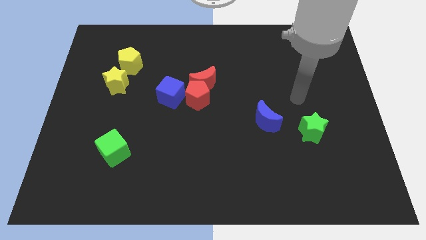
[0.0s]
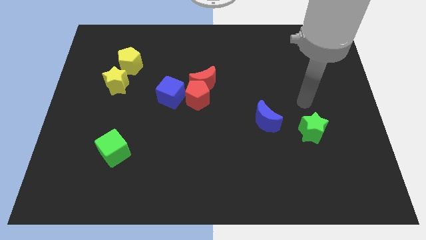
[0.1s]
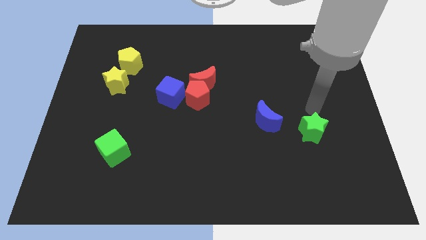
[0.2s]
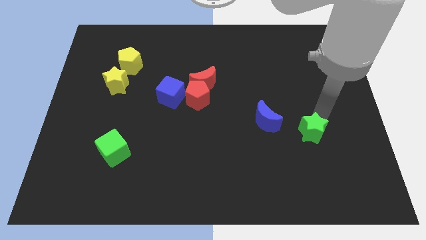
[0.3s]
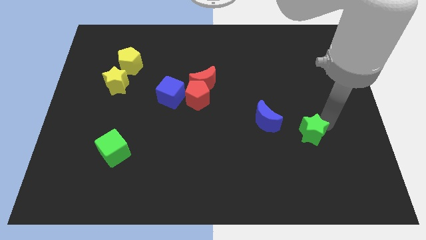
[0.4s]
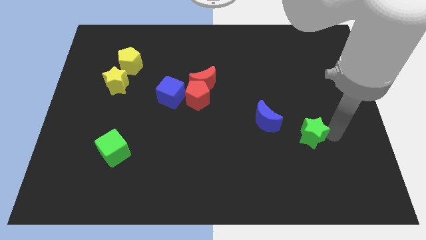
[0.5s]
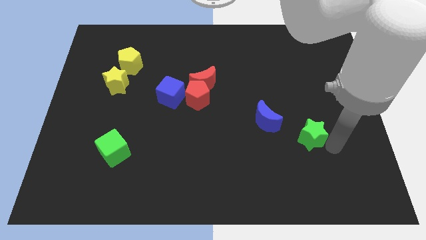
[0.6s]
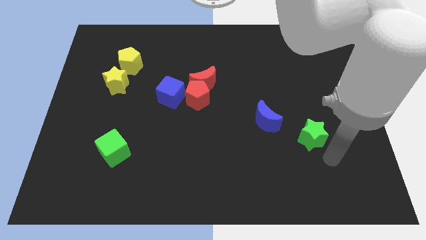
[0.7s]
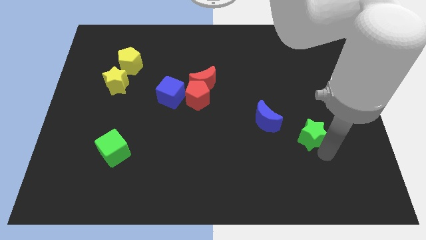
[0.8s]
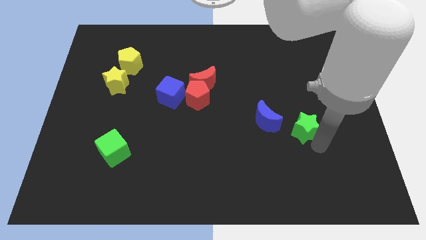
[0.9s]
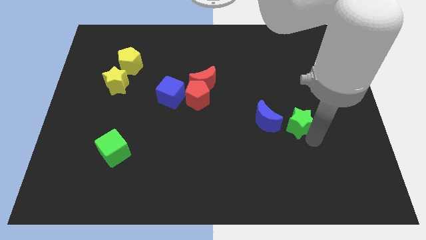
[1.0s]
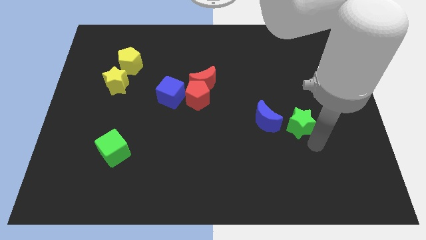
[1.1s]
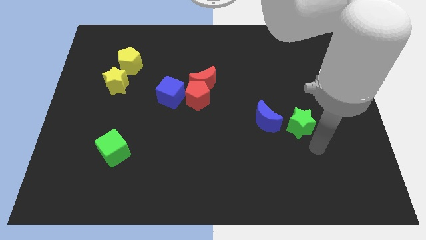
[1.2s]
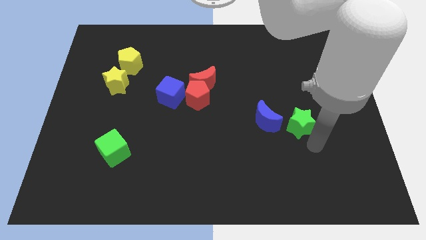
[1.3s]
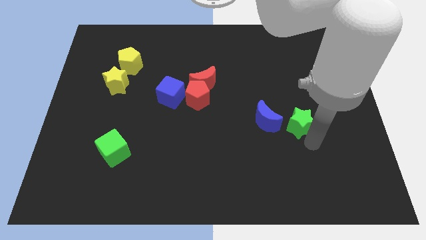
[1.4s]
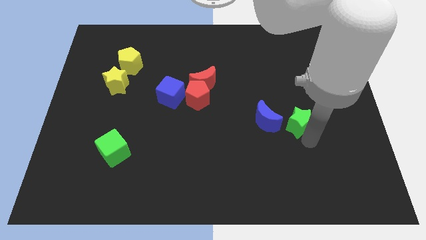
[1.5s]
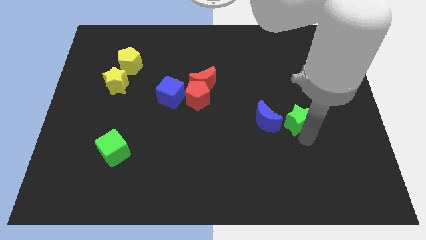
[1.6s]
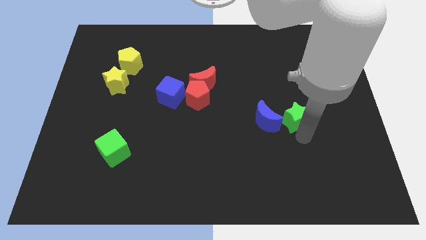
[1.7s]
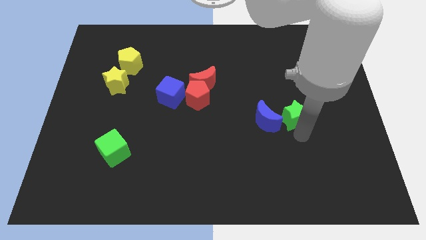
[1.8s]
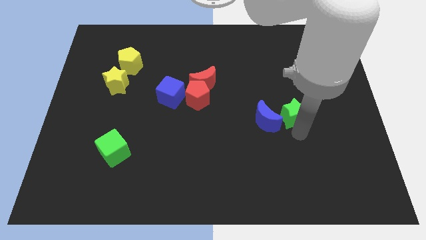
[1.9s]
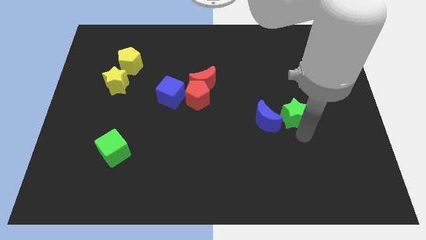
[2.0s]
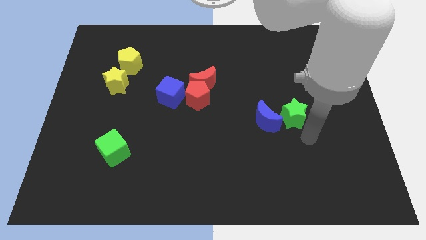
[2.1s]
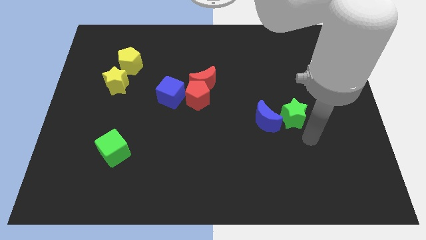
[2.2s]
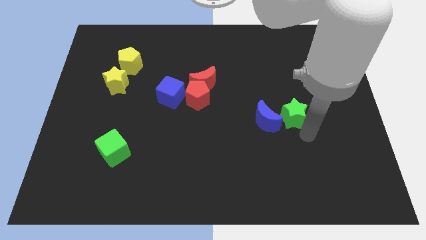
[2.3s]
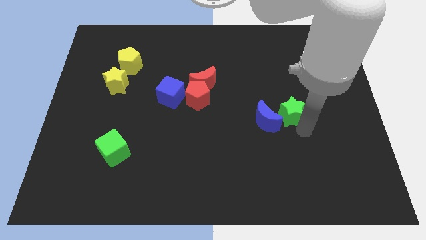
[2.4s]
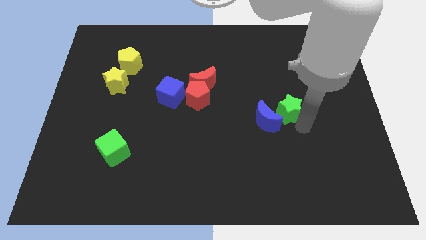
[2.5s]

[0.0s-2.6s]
slightly move the green star upwards and left diagonally

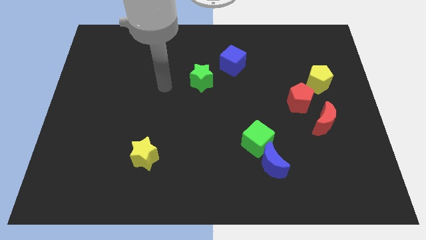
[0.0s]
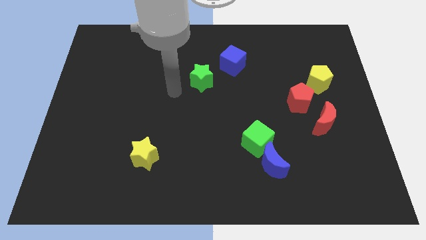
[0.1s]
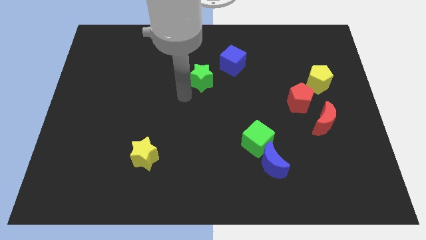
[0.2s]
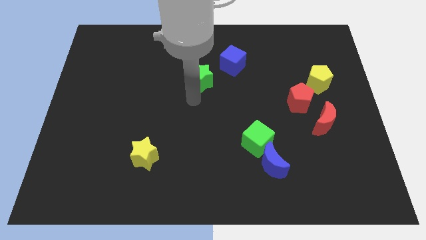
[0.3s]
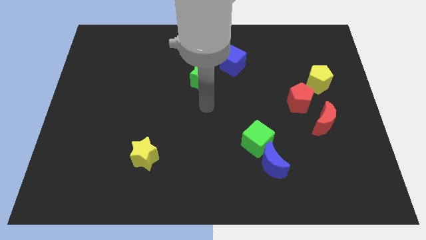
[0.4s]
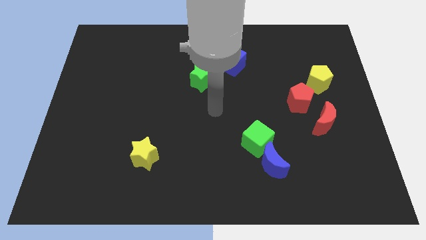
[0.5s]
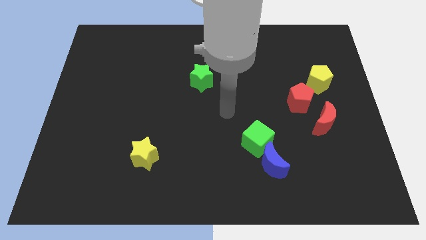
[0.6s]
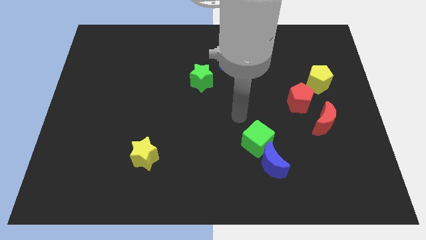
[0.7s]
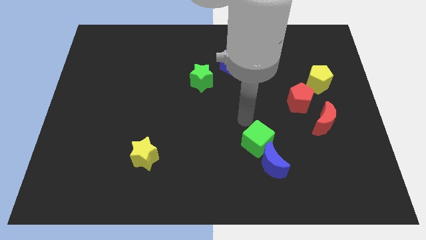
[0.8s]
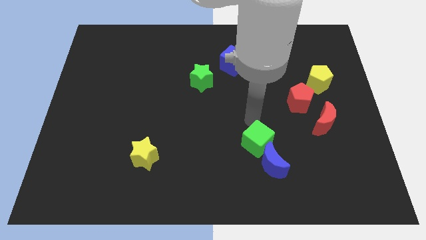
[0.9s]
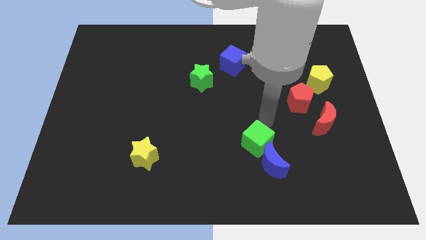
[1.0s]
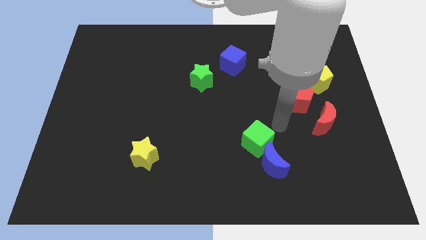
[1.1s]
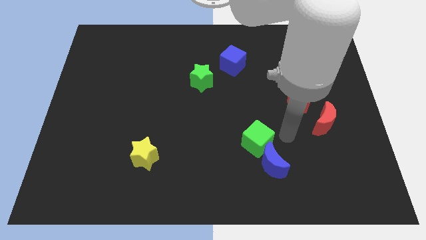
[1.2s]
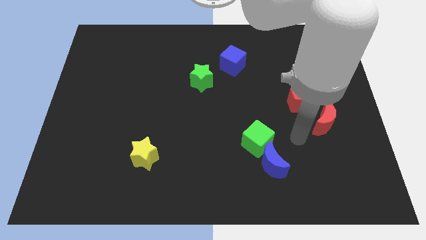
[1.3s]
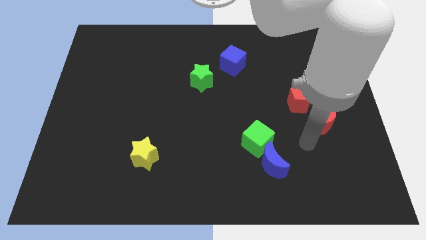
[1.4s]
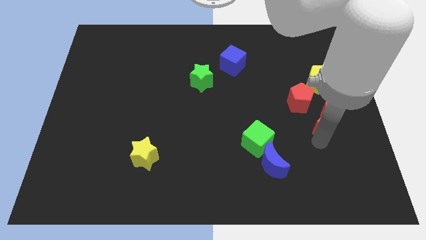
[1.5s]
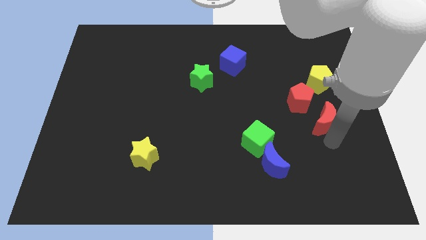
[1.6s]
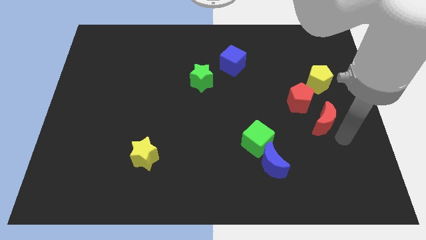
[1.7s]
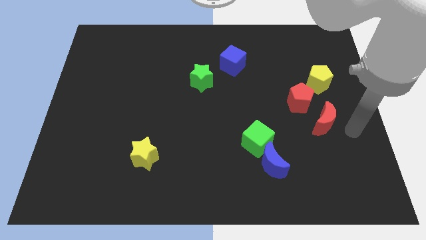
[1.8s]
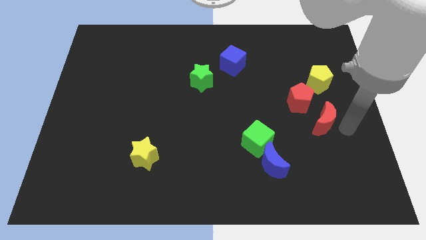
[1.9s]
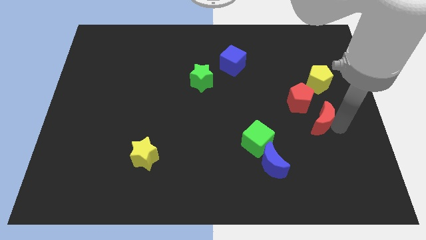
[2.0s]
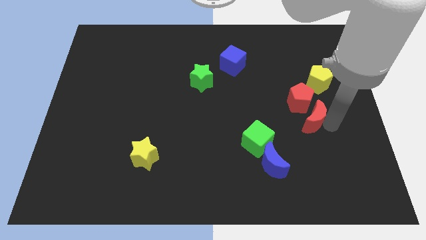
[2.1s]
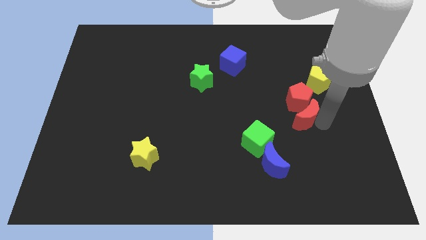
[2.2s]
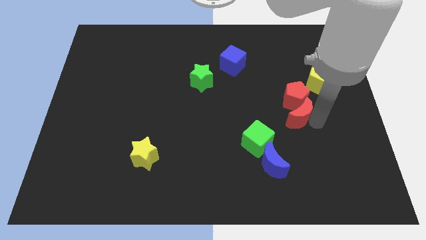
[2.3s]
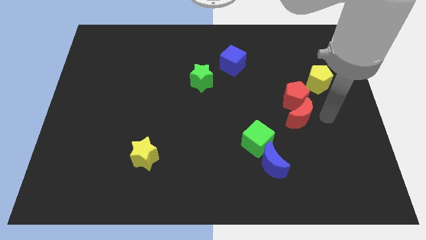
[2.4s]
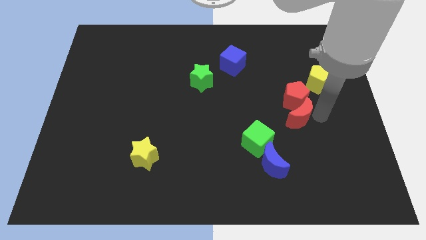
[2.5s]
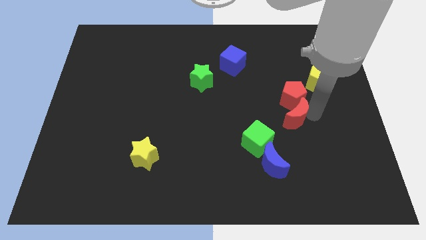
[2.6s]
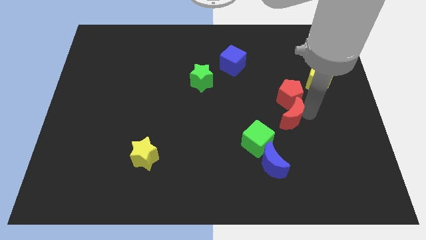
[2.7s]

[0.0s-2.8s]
slightly slide the red moon to the left

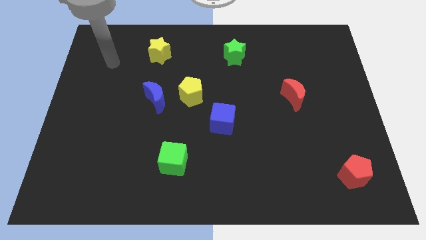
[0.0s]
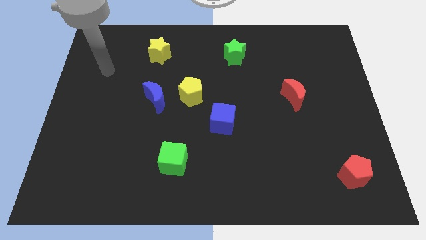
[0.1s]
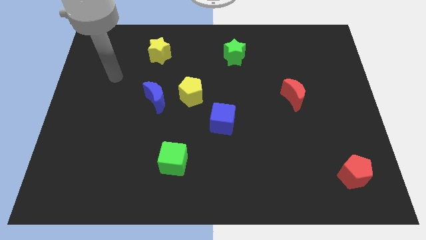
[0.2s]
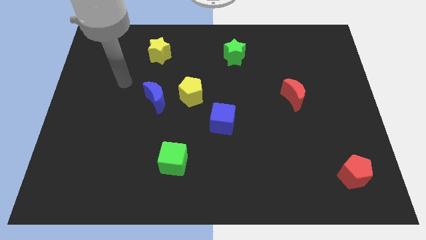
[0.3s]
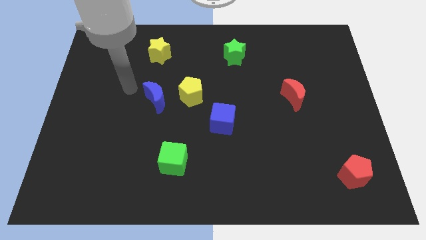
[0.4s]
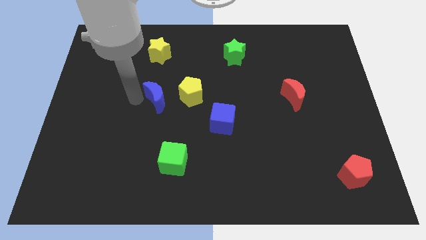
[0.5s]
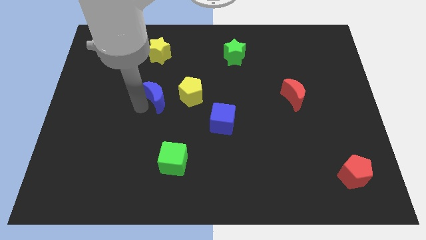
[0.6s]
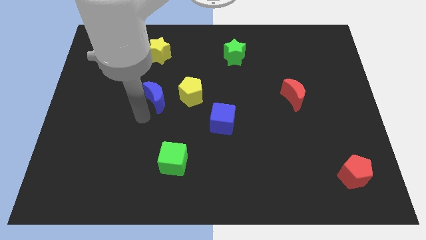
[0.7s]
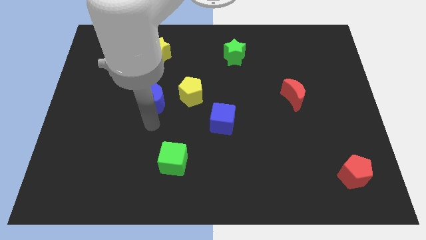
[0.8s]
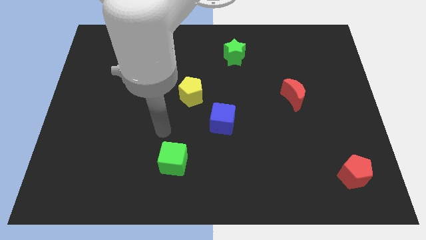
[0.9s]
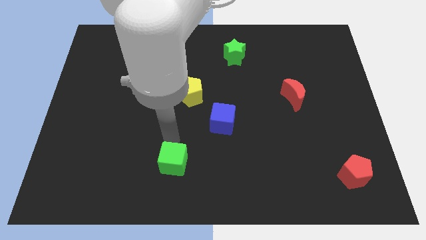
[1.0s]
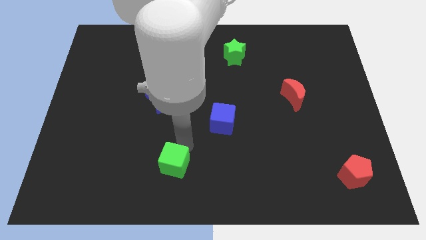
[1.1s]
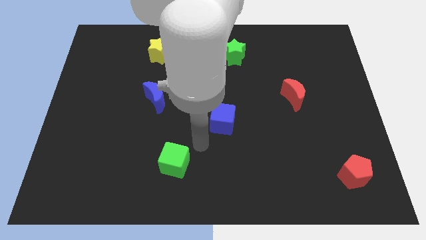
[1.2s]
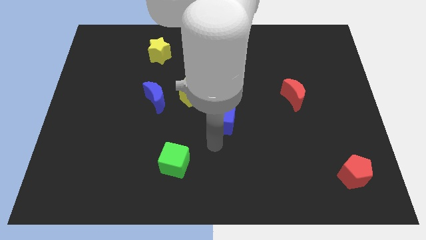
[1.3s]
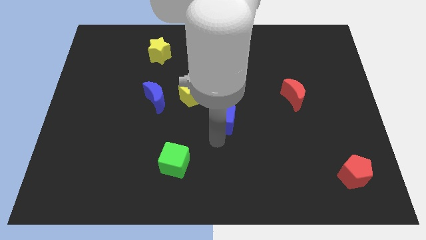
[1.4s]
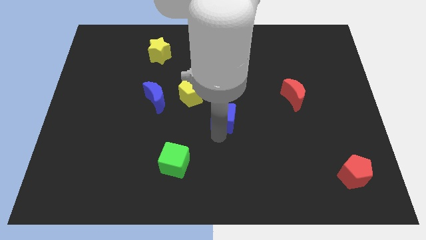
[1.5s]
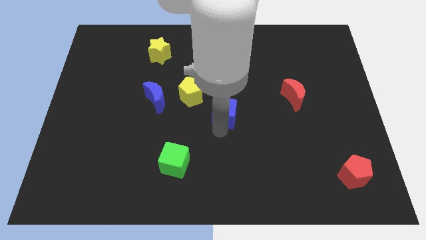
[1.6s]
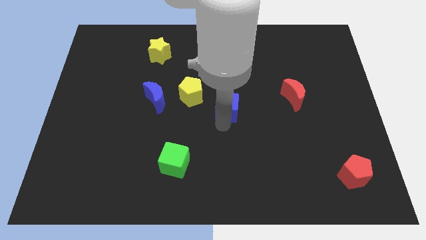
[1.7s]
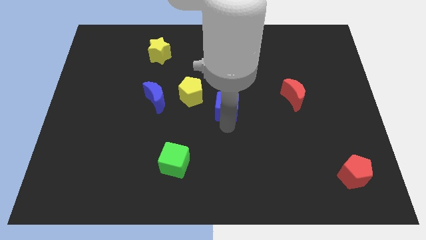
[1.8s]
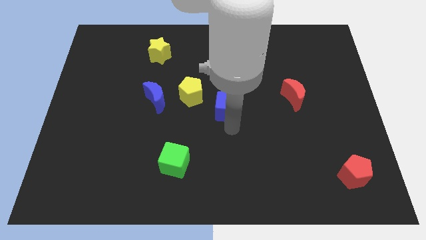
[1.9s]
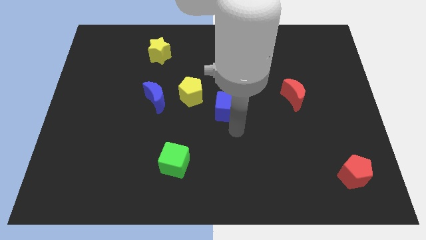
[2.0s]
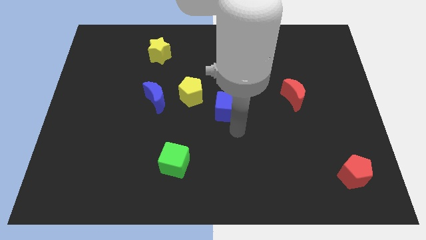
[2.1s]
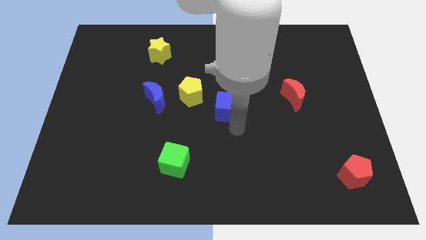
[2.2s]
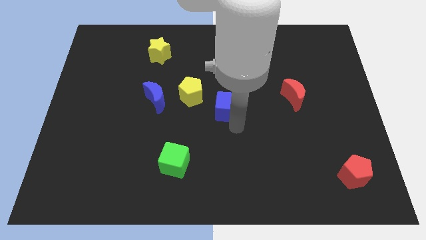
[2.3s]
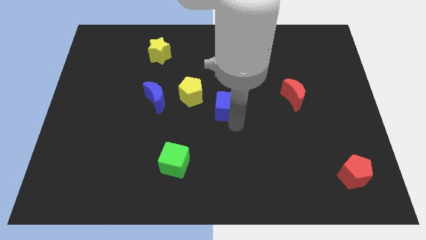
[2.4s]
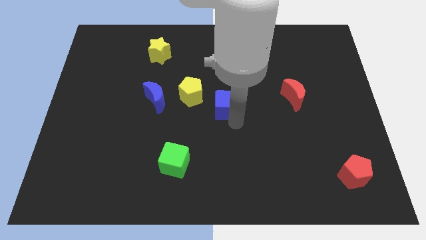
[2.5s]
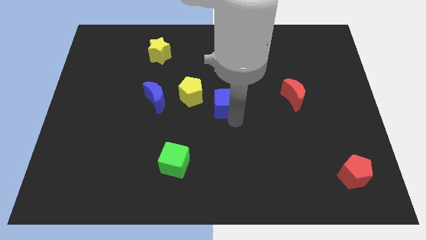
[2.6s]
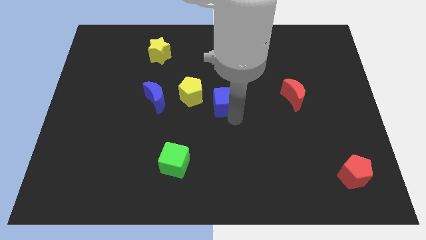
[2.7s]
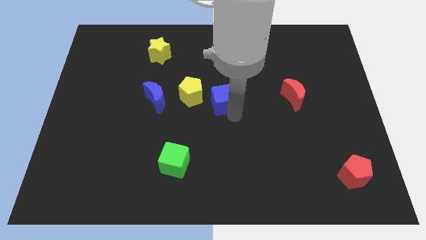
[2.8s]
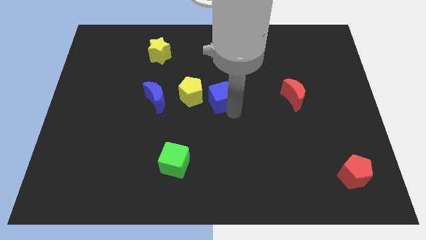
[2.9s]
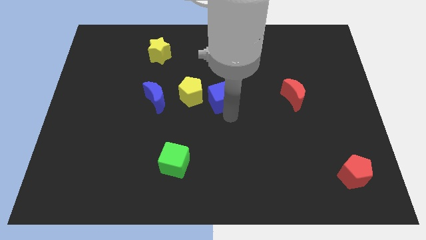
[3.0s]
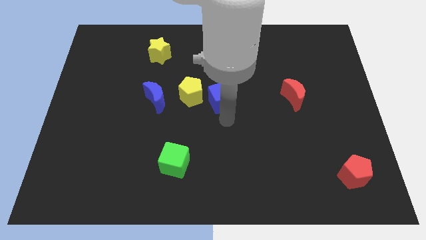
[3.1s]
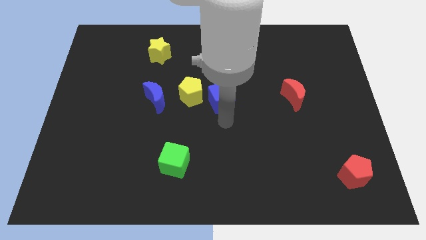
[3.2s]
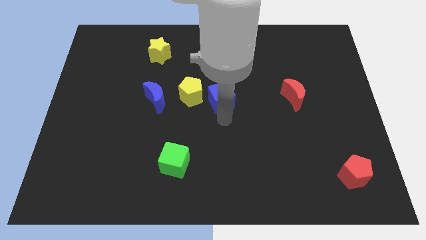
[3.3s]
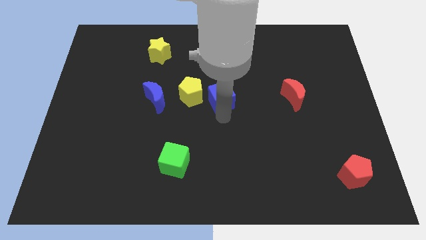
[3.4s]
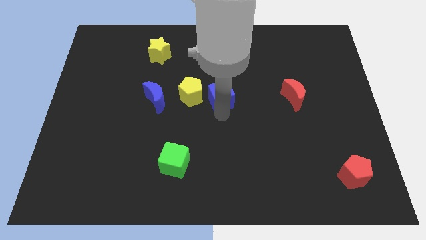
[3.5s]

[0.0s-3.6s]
move the blue cube up a little
